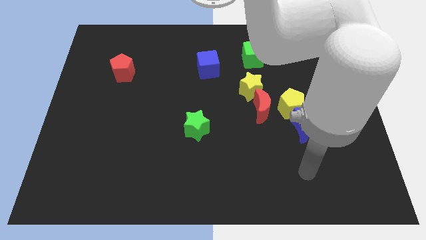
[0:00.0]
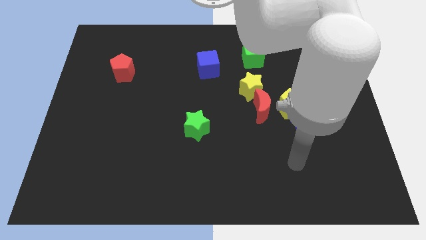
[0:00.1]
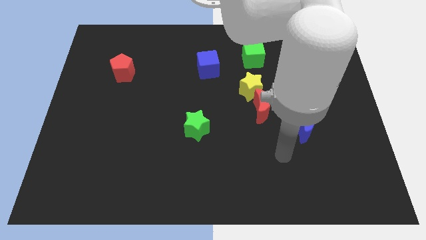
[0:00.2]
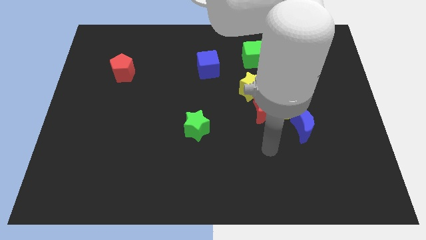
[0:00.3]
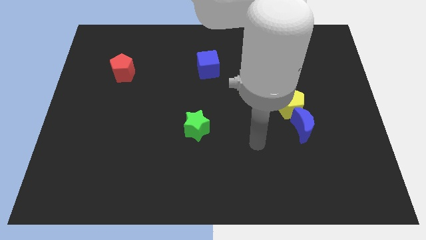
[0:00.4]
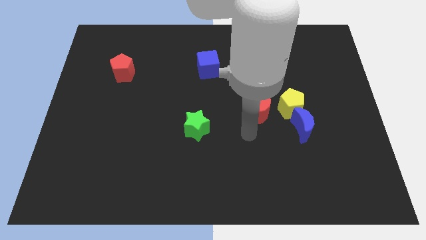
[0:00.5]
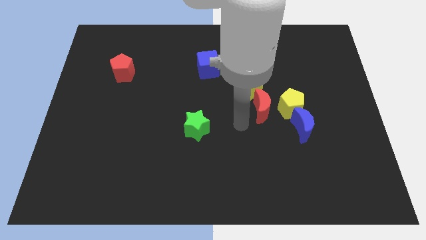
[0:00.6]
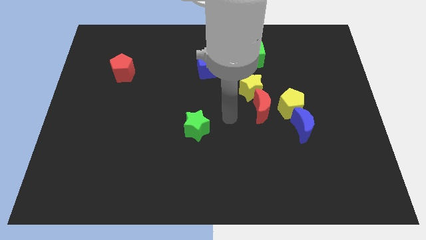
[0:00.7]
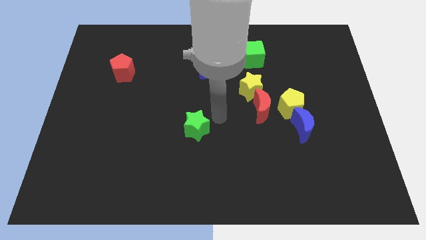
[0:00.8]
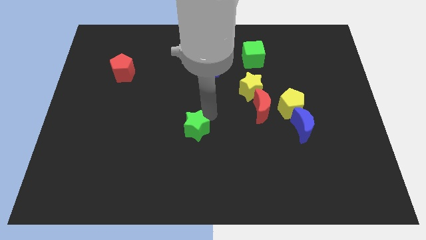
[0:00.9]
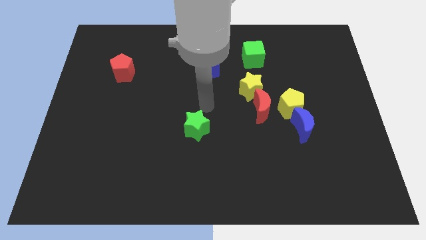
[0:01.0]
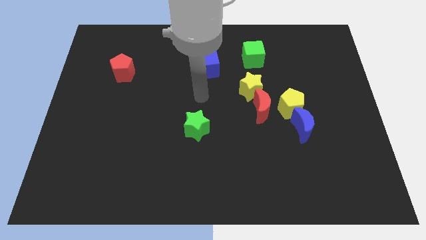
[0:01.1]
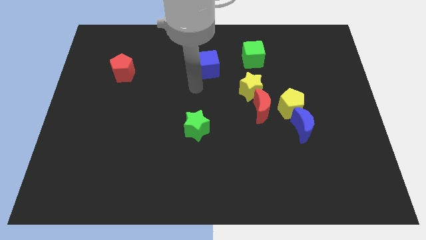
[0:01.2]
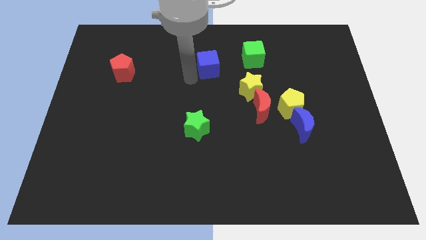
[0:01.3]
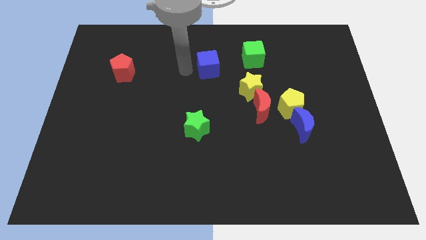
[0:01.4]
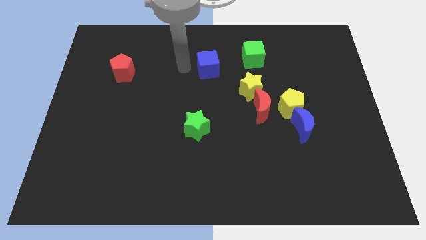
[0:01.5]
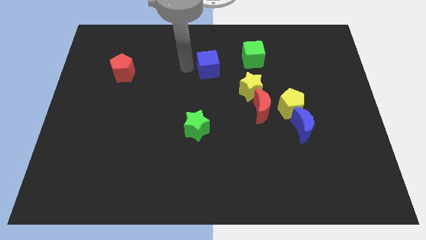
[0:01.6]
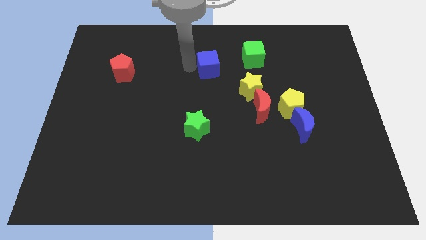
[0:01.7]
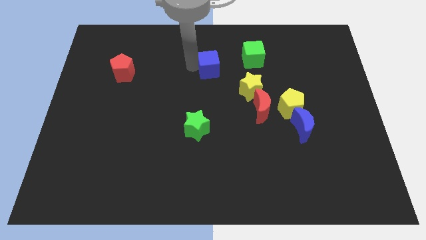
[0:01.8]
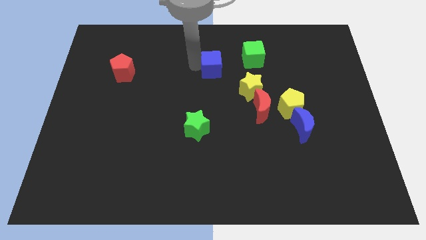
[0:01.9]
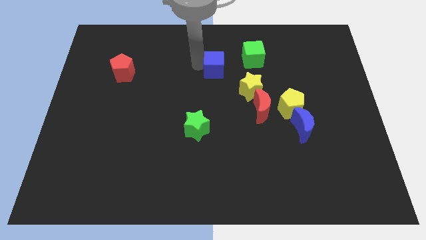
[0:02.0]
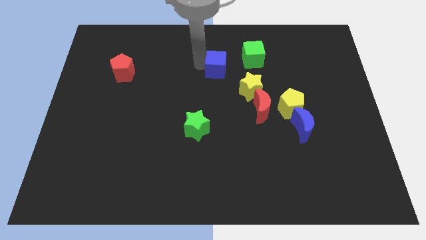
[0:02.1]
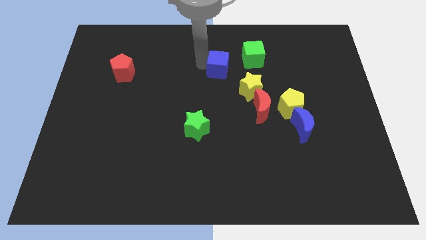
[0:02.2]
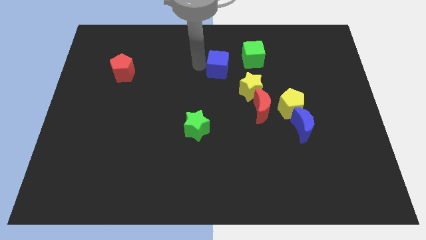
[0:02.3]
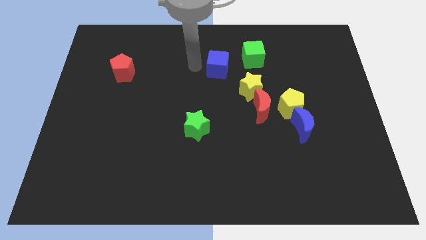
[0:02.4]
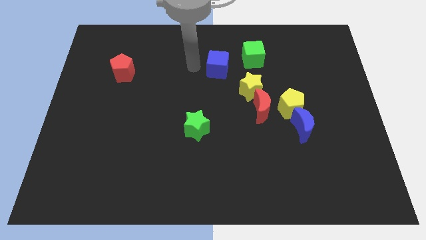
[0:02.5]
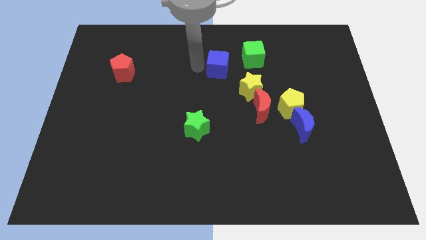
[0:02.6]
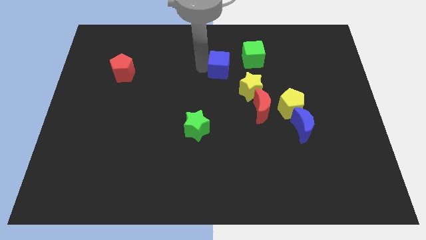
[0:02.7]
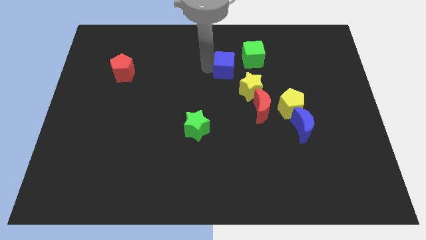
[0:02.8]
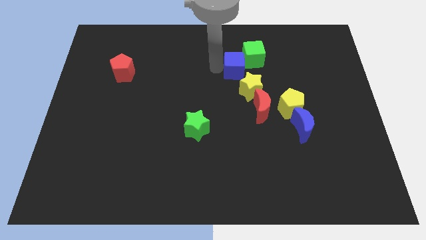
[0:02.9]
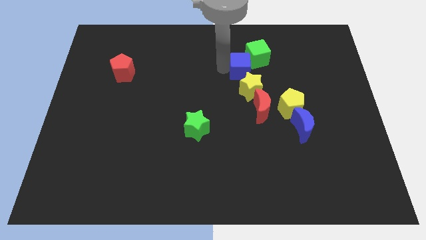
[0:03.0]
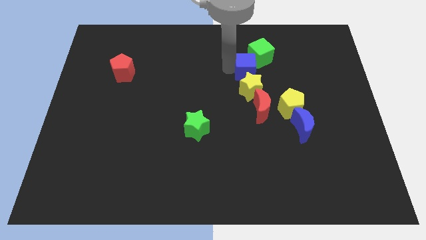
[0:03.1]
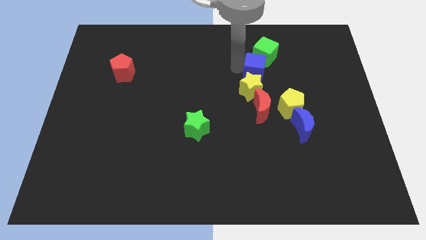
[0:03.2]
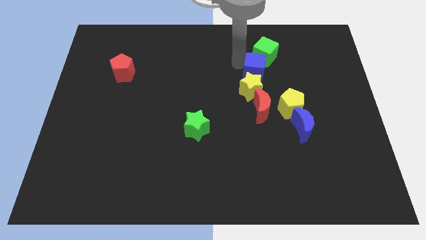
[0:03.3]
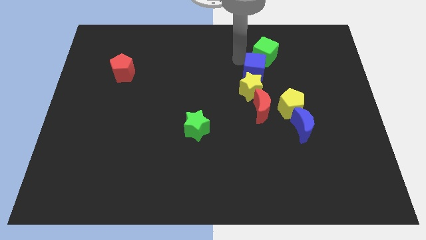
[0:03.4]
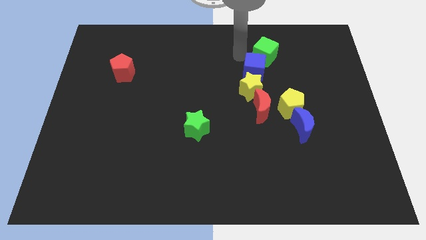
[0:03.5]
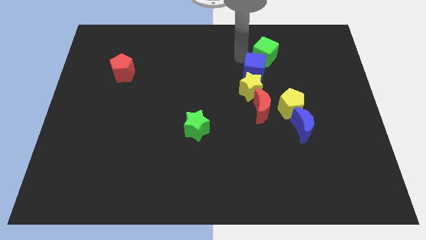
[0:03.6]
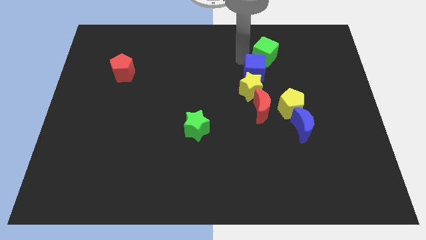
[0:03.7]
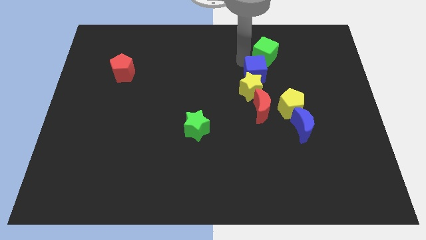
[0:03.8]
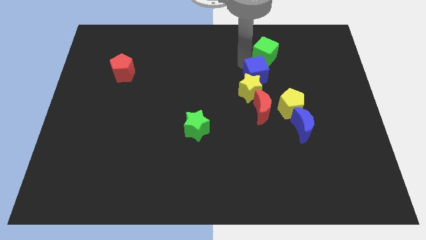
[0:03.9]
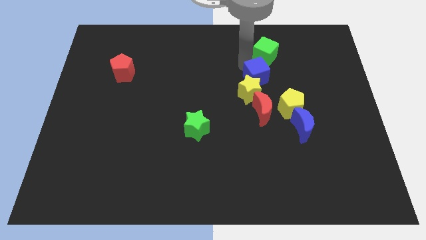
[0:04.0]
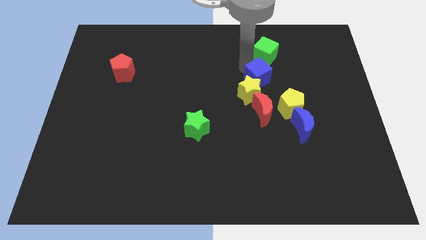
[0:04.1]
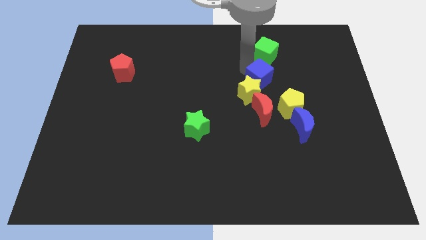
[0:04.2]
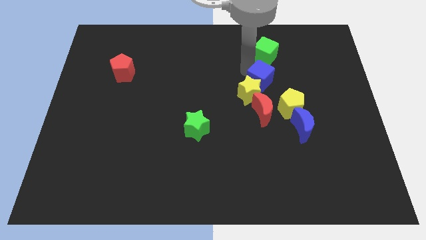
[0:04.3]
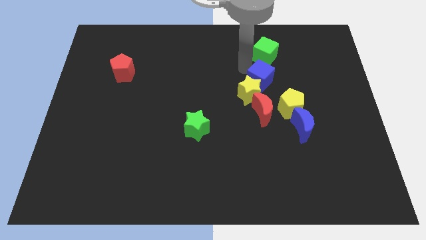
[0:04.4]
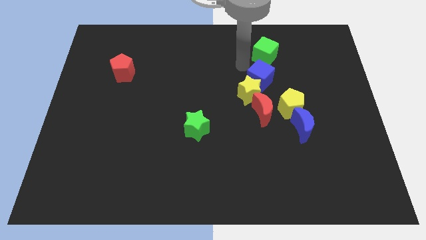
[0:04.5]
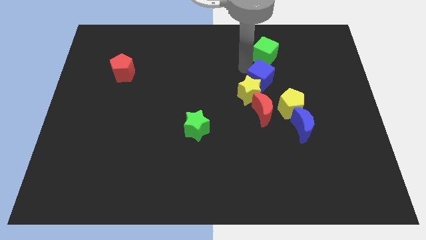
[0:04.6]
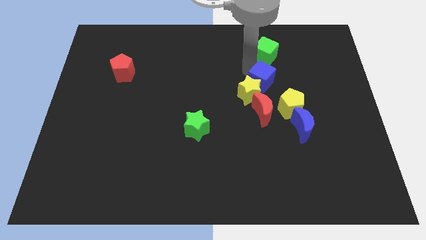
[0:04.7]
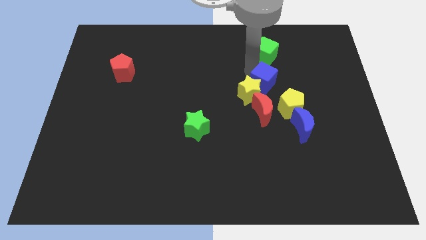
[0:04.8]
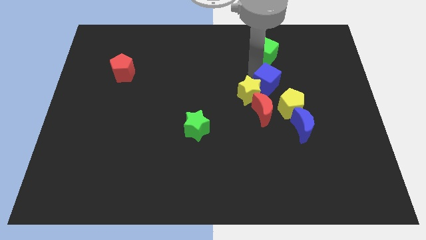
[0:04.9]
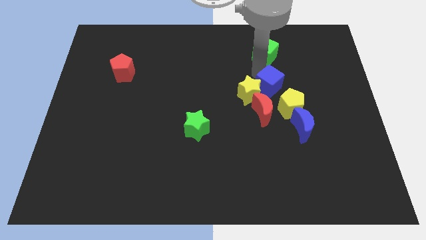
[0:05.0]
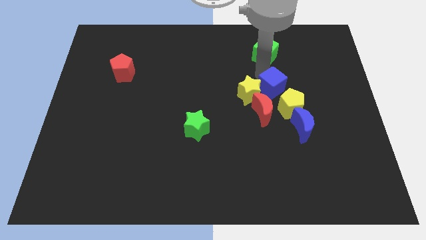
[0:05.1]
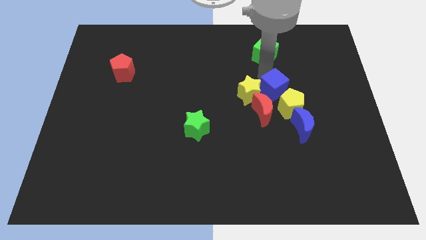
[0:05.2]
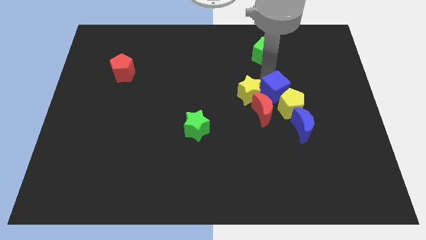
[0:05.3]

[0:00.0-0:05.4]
slide the blue cube close to the yellow pentagon

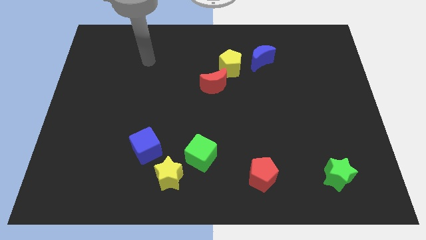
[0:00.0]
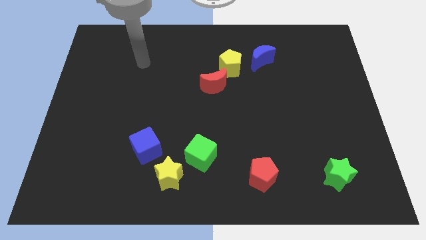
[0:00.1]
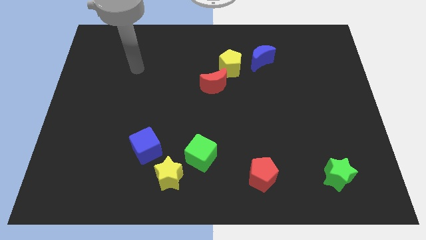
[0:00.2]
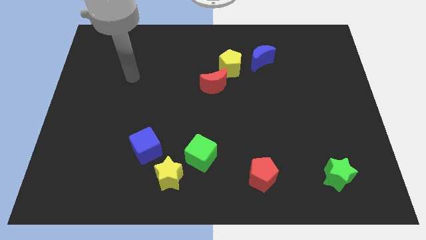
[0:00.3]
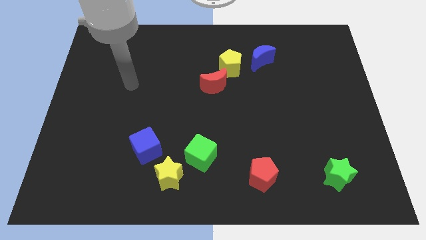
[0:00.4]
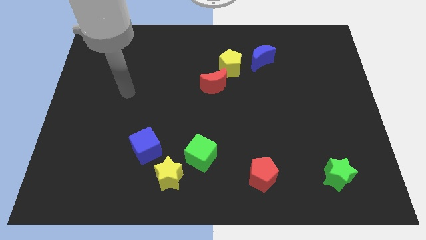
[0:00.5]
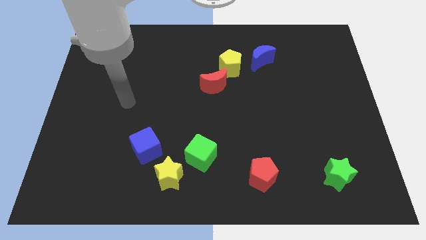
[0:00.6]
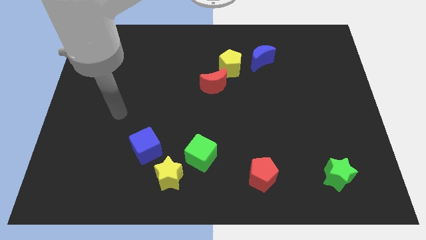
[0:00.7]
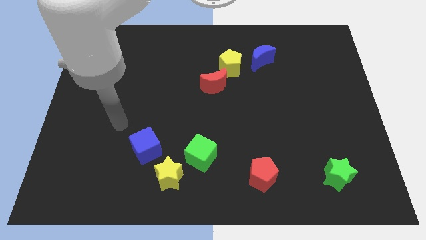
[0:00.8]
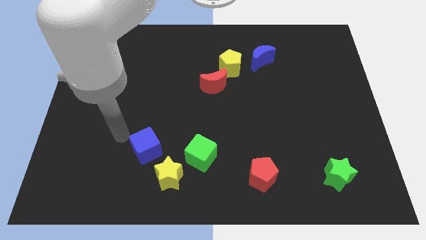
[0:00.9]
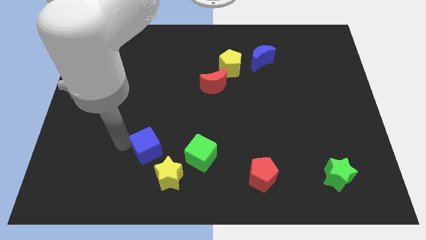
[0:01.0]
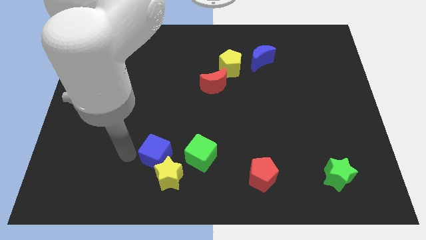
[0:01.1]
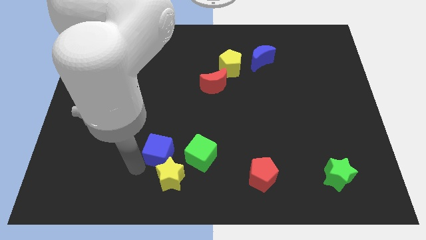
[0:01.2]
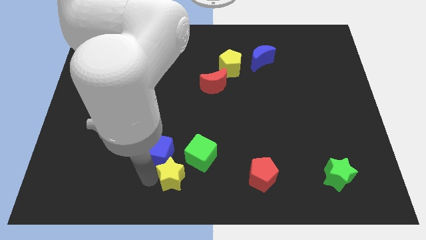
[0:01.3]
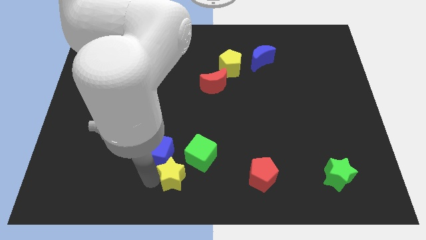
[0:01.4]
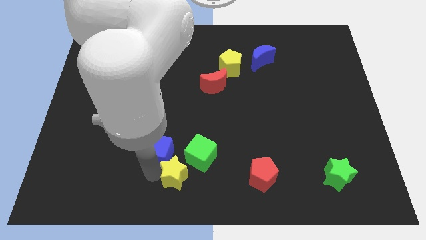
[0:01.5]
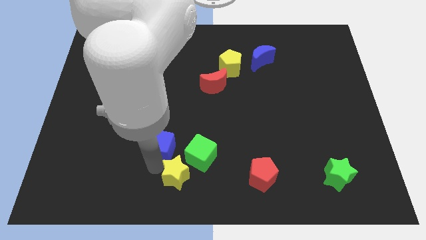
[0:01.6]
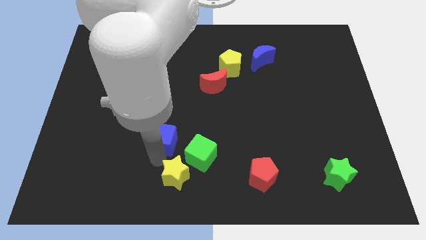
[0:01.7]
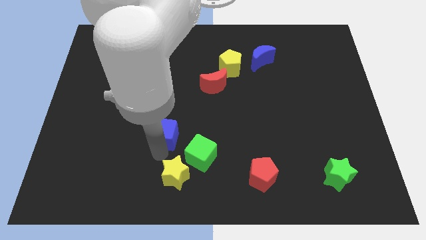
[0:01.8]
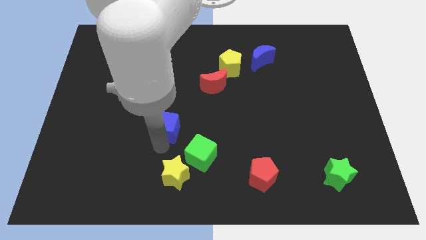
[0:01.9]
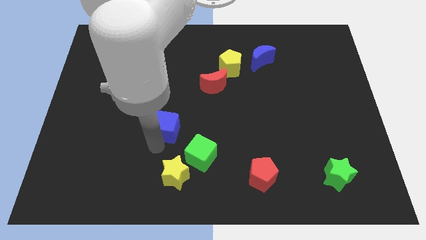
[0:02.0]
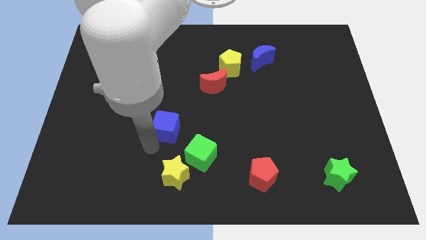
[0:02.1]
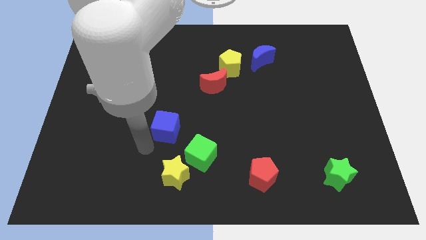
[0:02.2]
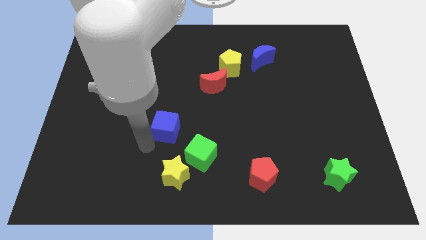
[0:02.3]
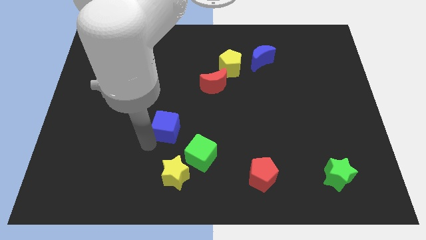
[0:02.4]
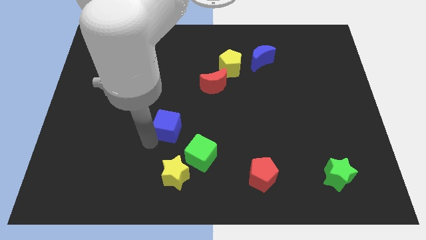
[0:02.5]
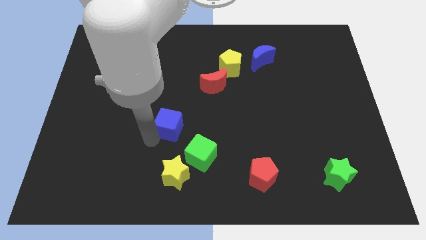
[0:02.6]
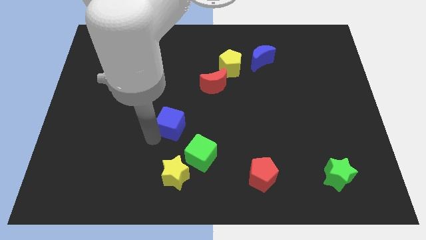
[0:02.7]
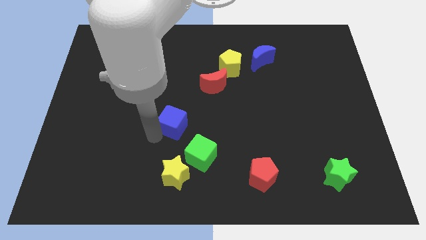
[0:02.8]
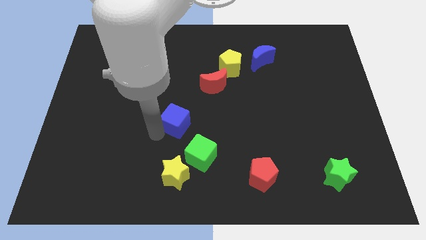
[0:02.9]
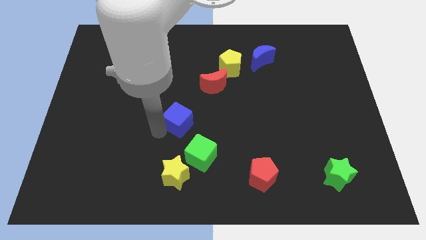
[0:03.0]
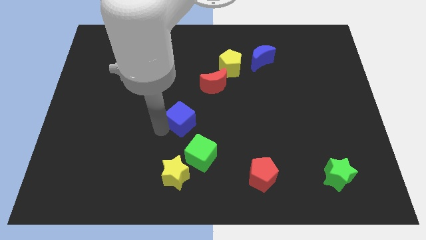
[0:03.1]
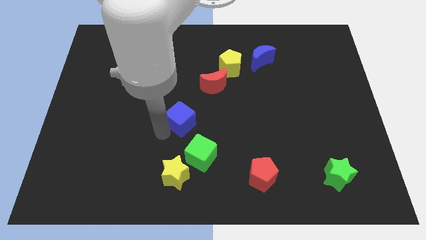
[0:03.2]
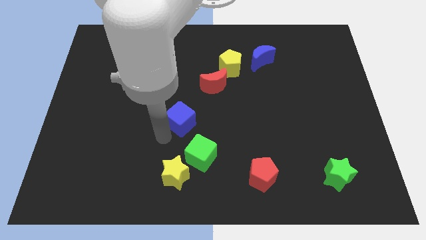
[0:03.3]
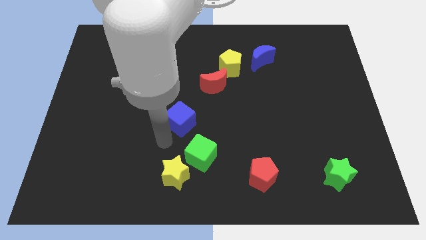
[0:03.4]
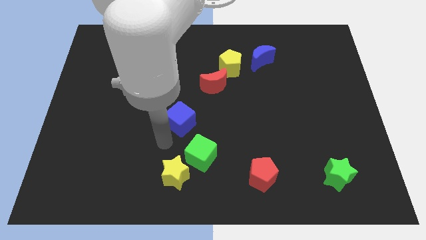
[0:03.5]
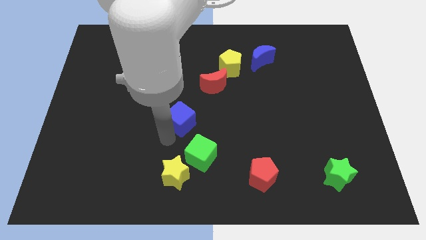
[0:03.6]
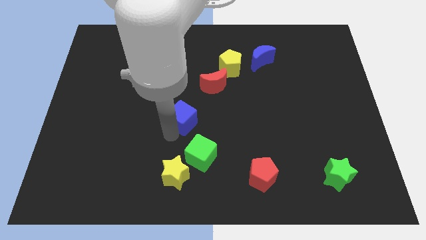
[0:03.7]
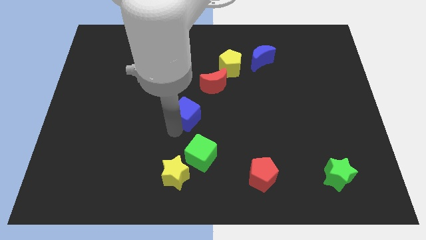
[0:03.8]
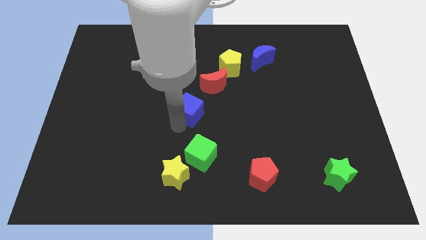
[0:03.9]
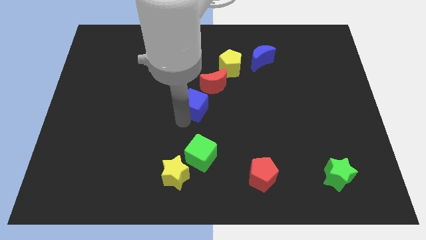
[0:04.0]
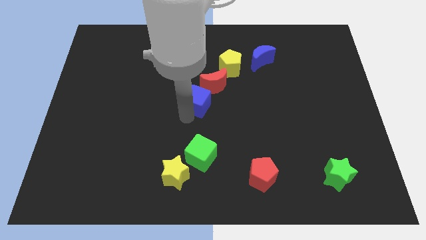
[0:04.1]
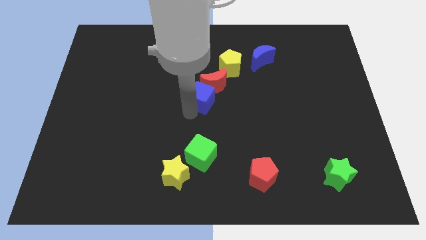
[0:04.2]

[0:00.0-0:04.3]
push the blue cube next to the red moon
